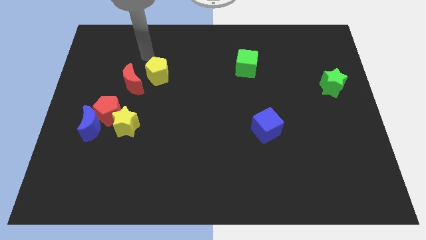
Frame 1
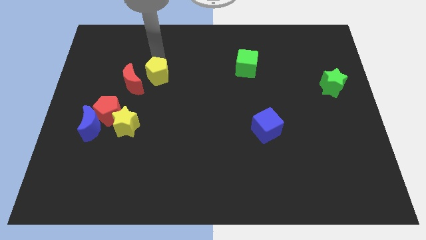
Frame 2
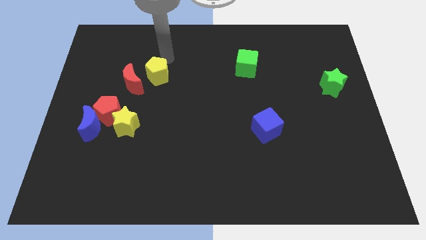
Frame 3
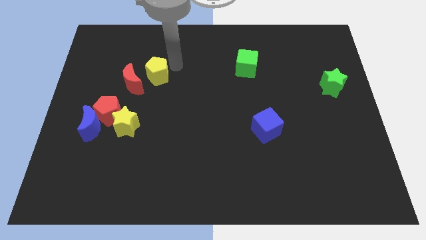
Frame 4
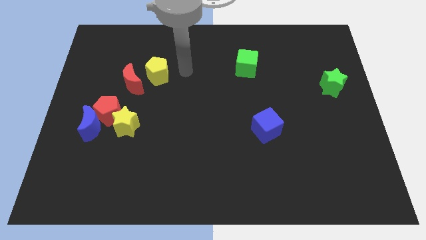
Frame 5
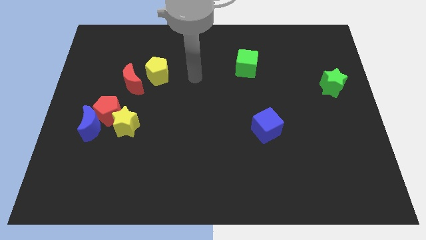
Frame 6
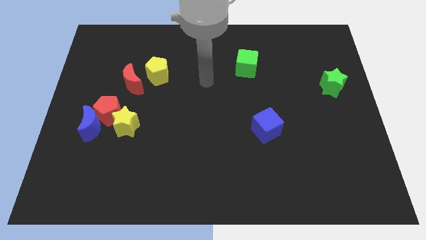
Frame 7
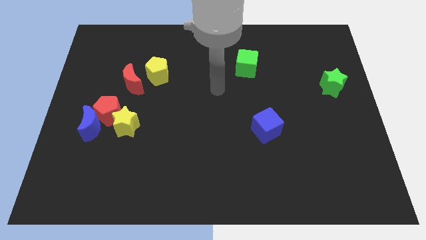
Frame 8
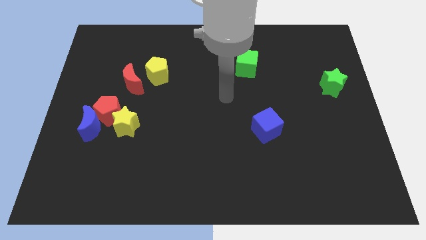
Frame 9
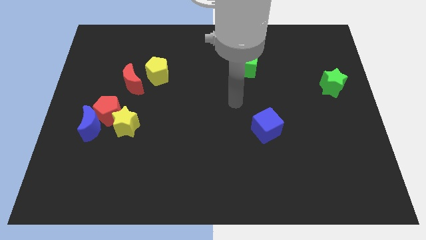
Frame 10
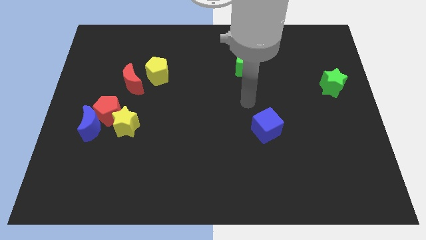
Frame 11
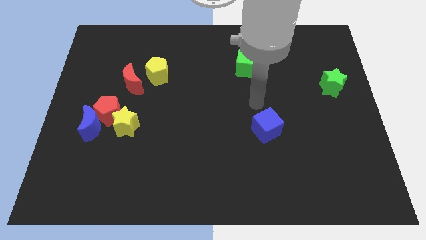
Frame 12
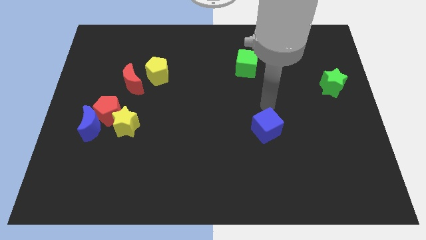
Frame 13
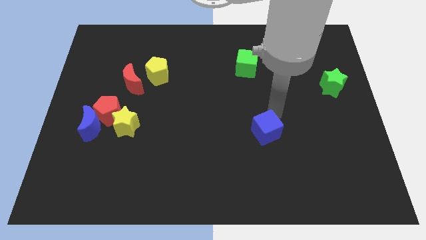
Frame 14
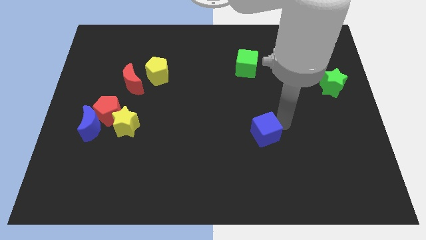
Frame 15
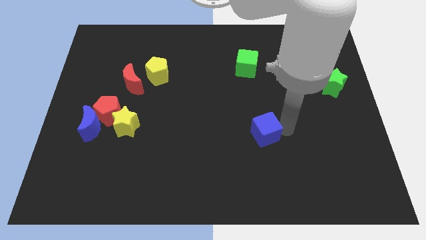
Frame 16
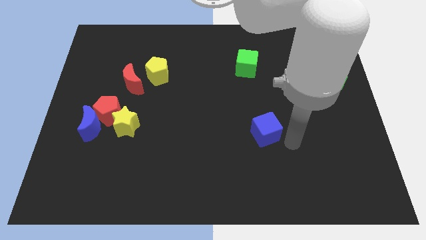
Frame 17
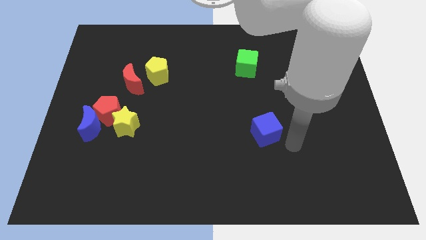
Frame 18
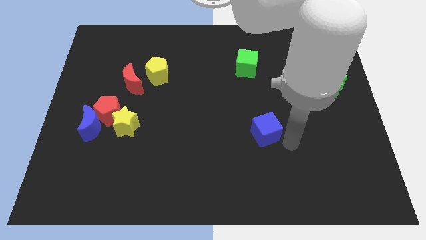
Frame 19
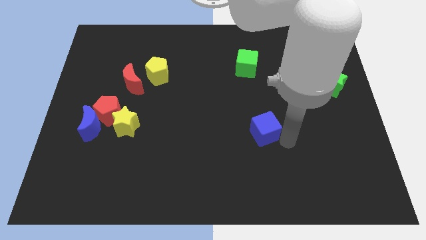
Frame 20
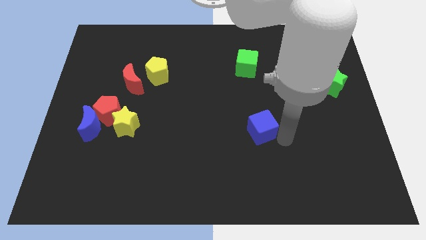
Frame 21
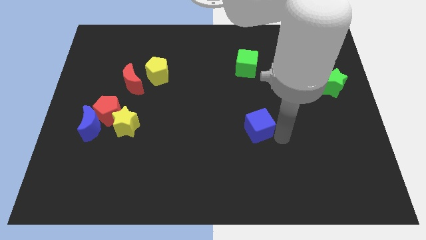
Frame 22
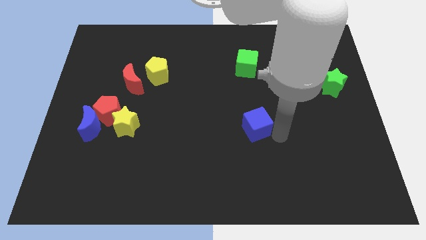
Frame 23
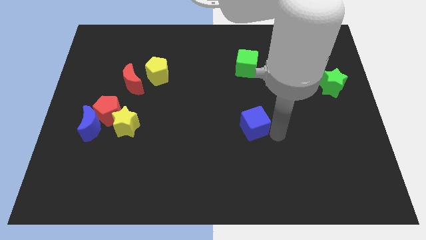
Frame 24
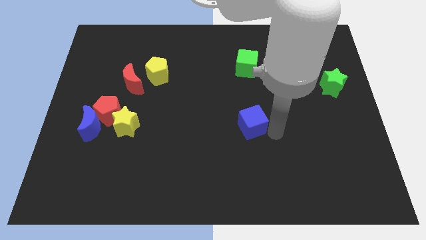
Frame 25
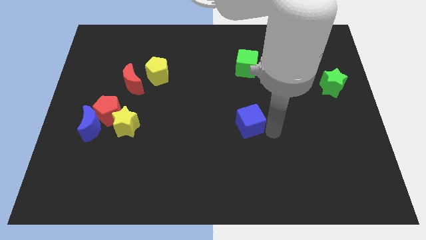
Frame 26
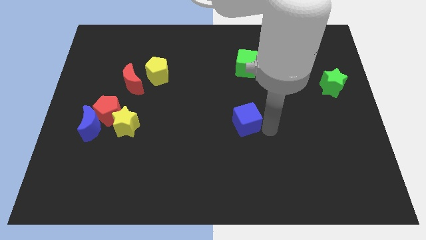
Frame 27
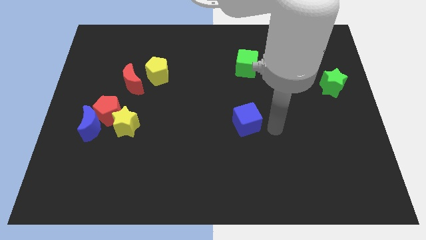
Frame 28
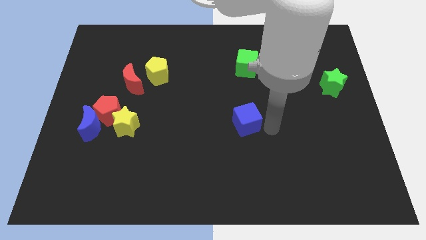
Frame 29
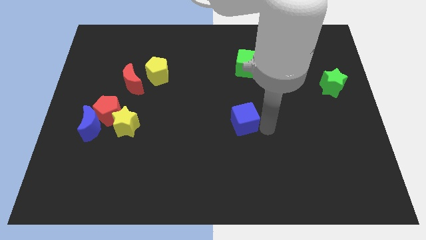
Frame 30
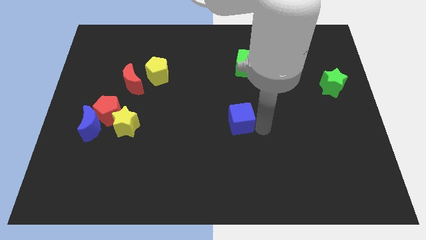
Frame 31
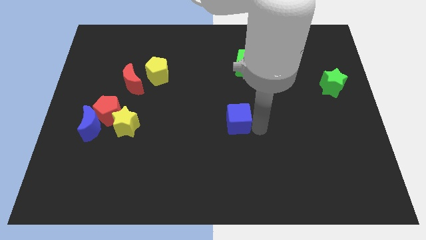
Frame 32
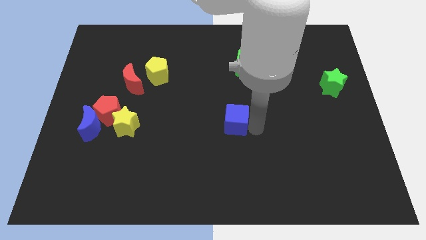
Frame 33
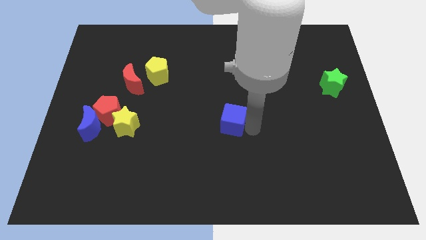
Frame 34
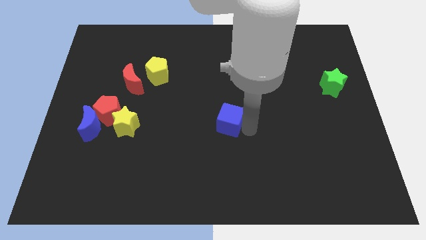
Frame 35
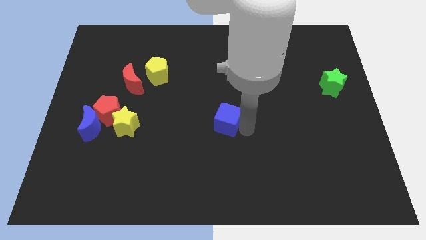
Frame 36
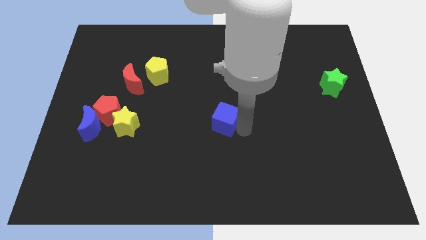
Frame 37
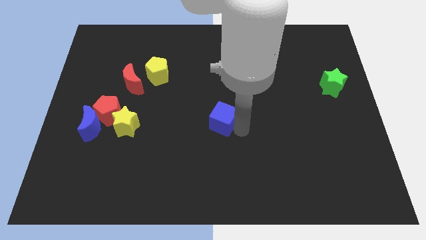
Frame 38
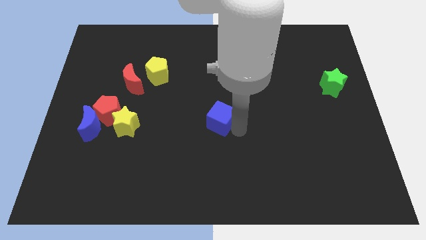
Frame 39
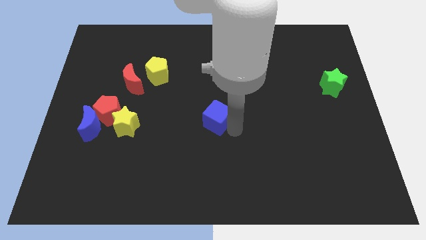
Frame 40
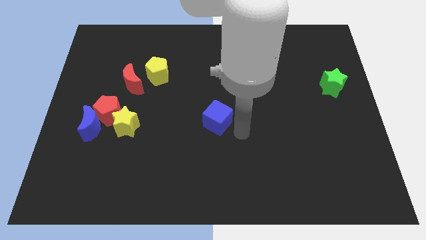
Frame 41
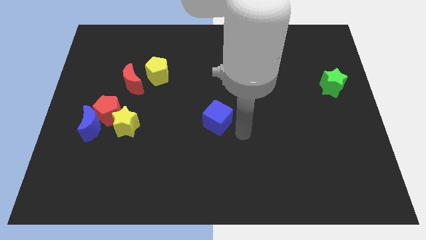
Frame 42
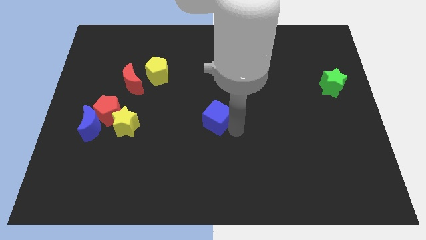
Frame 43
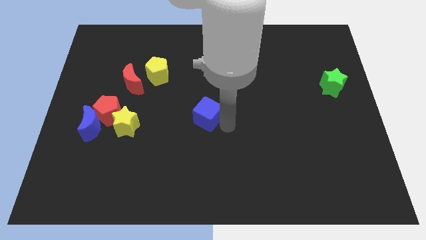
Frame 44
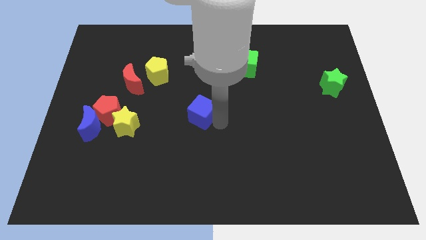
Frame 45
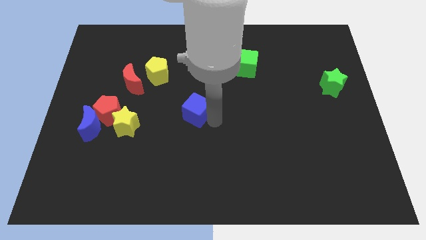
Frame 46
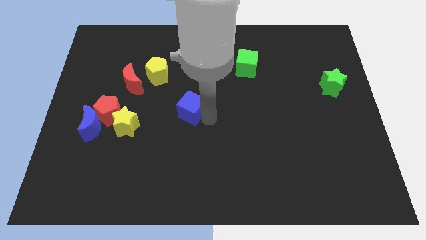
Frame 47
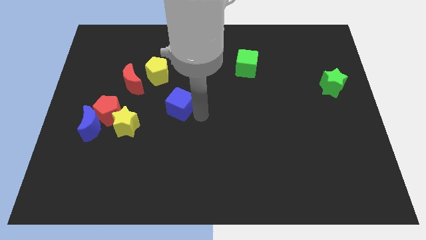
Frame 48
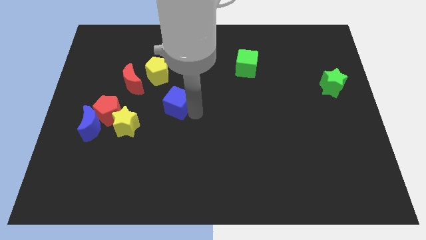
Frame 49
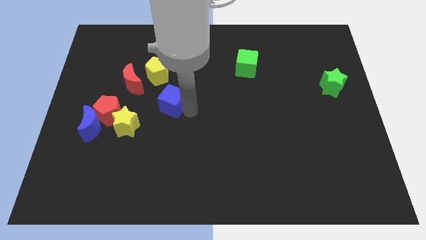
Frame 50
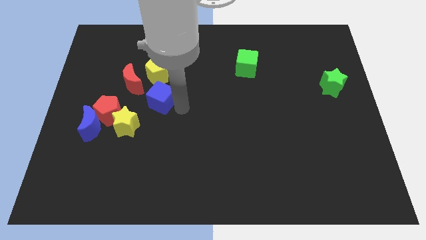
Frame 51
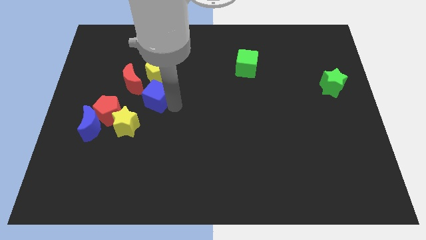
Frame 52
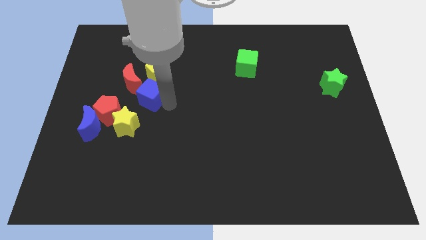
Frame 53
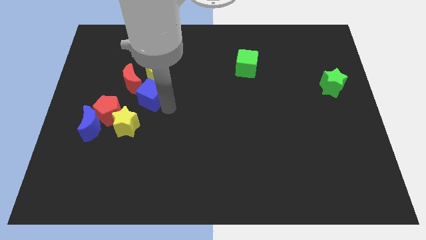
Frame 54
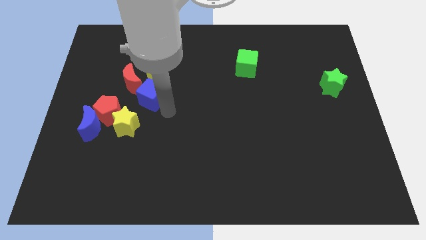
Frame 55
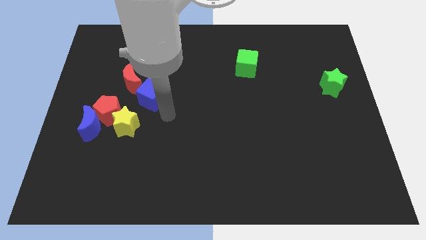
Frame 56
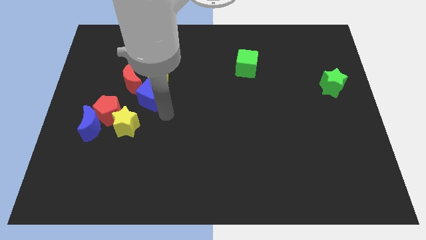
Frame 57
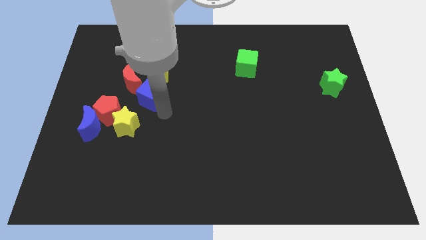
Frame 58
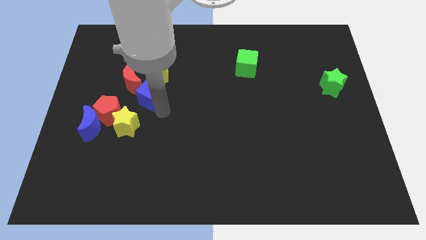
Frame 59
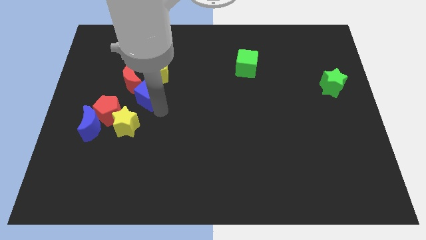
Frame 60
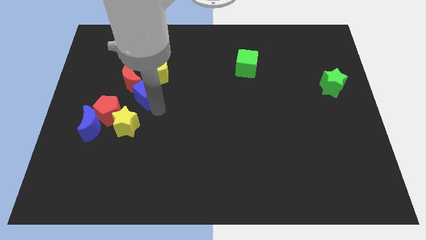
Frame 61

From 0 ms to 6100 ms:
put the blue cube to the red moon

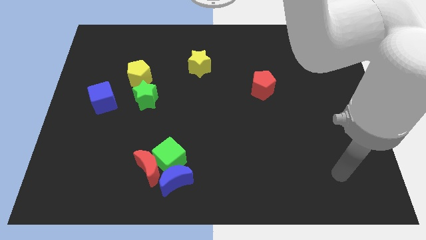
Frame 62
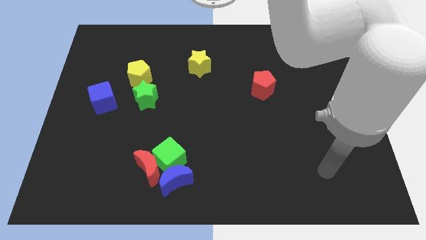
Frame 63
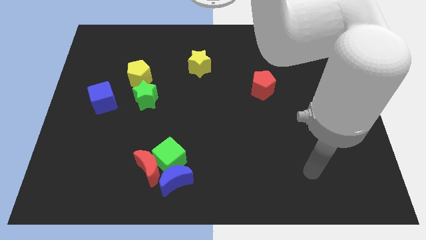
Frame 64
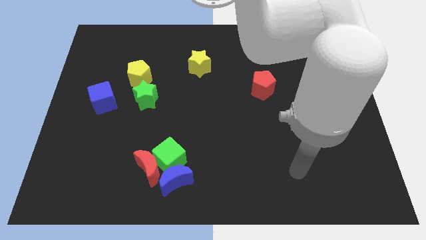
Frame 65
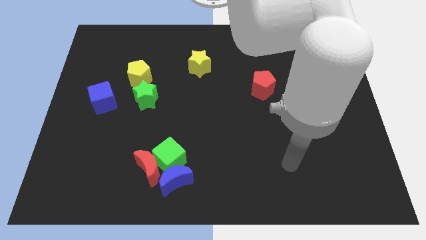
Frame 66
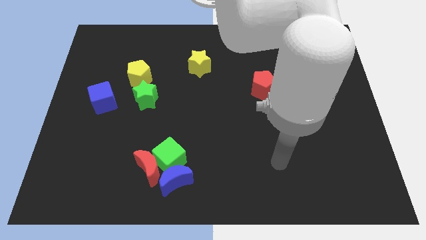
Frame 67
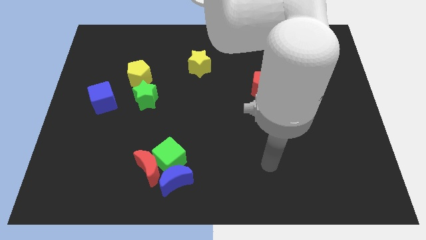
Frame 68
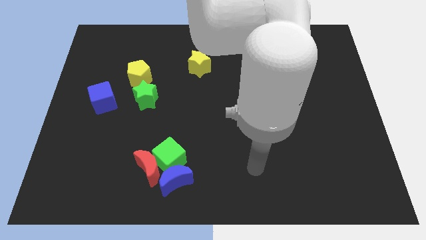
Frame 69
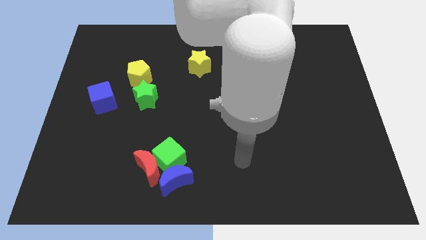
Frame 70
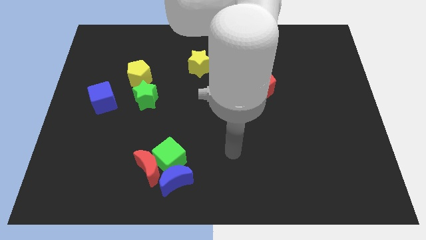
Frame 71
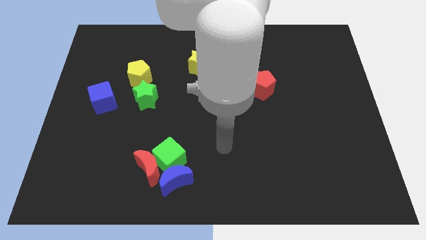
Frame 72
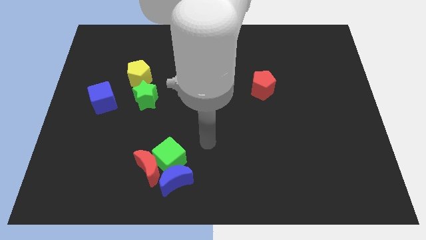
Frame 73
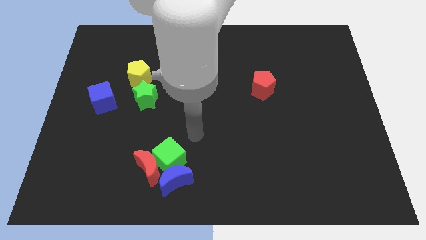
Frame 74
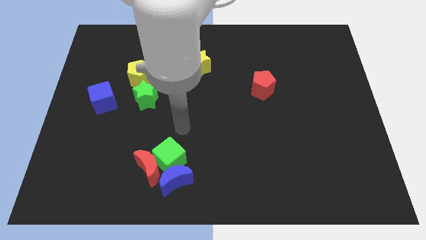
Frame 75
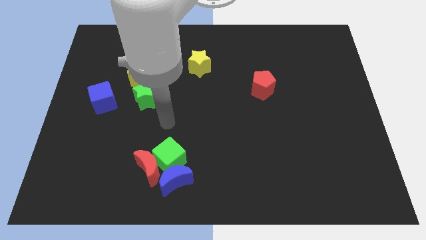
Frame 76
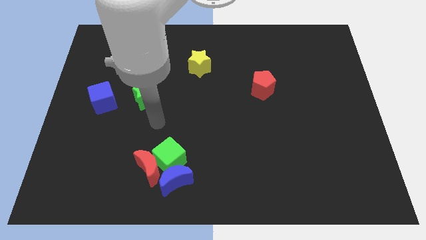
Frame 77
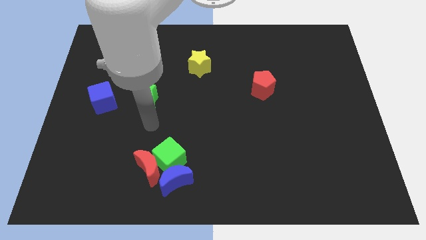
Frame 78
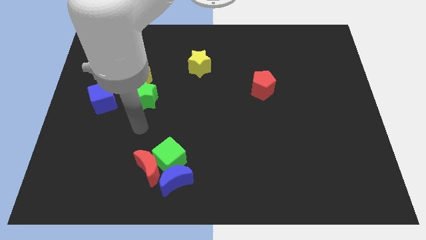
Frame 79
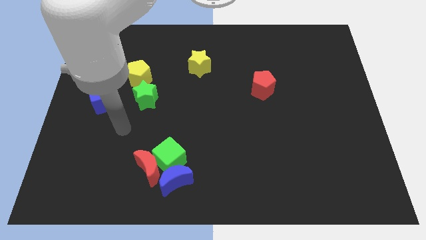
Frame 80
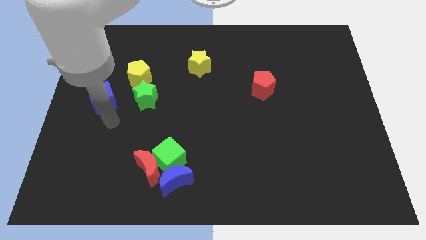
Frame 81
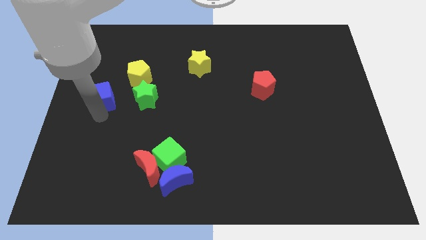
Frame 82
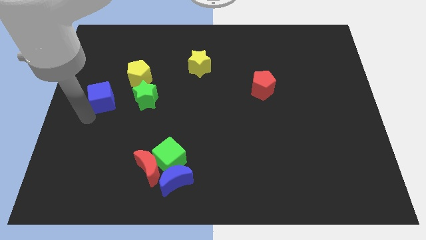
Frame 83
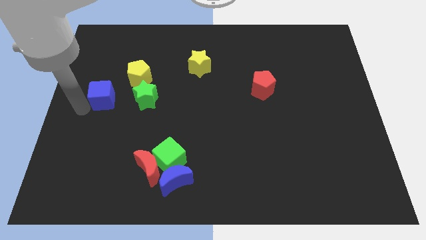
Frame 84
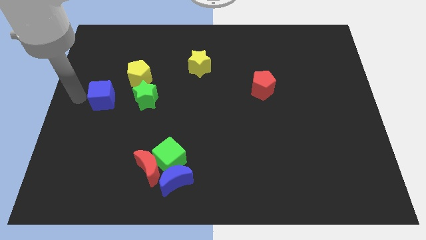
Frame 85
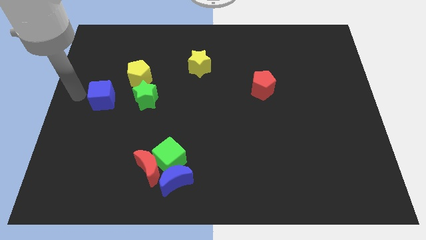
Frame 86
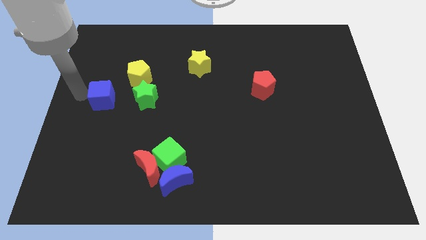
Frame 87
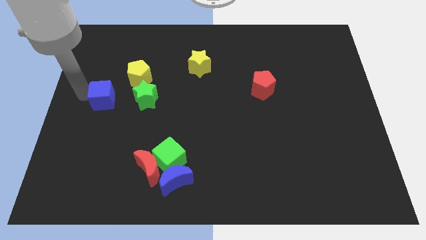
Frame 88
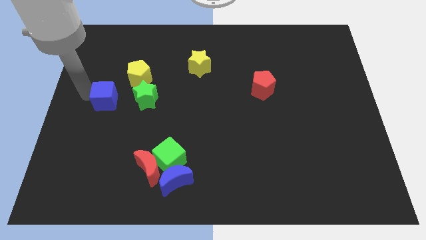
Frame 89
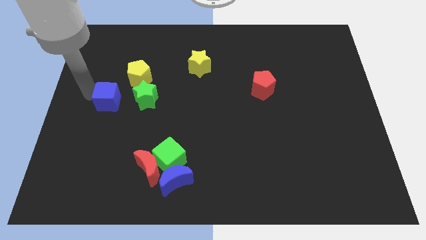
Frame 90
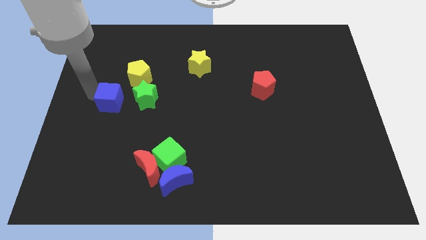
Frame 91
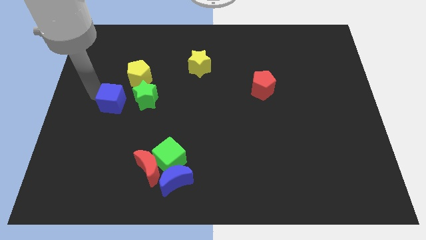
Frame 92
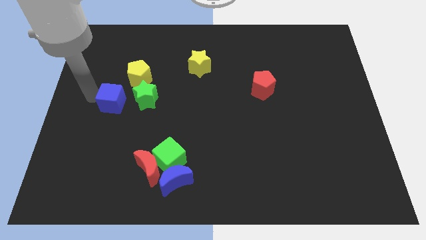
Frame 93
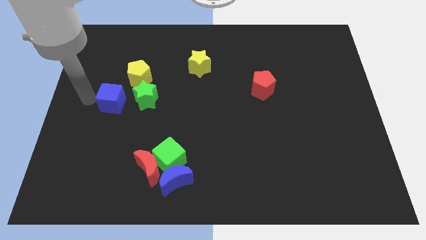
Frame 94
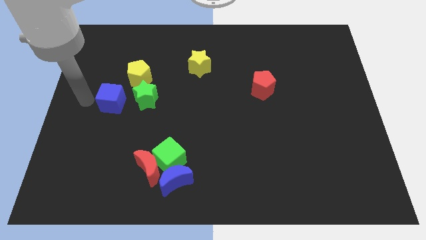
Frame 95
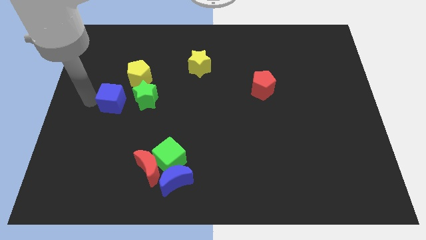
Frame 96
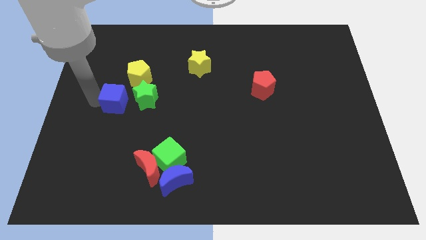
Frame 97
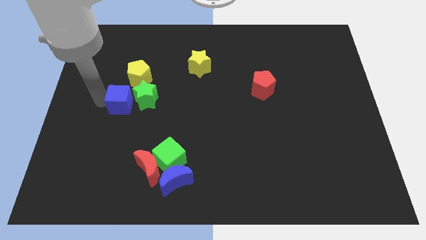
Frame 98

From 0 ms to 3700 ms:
put the blue cube close to the green star
